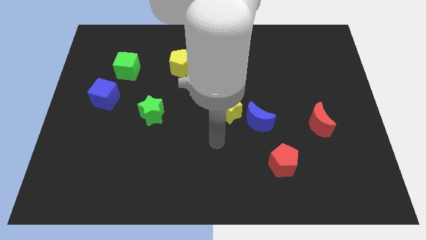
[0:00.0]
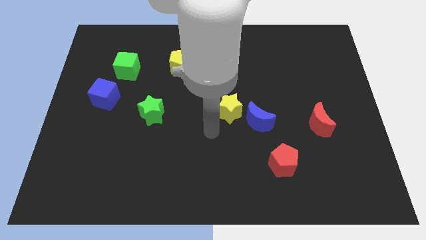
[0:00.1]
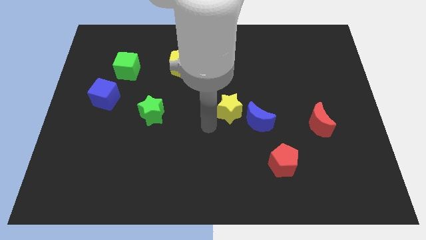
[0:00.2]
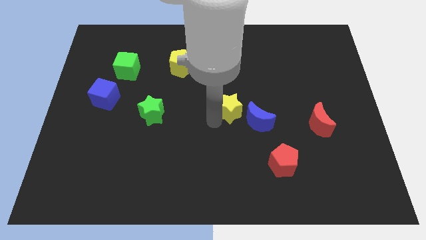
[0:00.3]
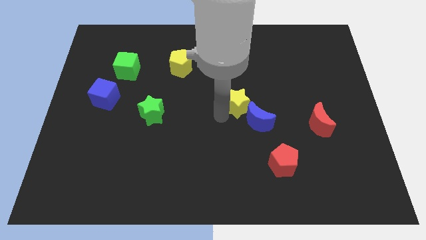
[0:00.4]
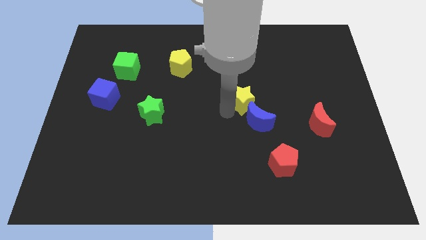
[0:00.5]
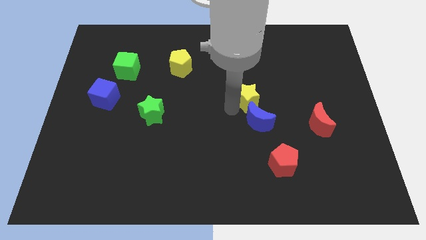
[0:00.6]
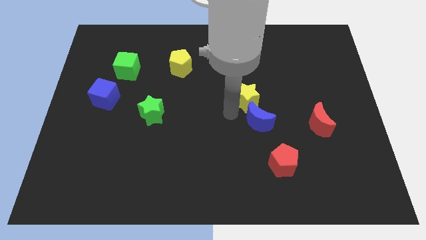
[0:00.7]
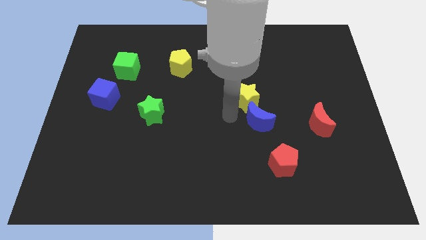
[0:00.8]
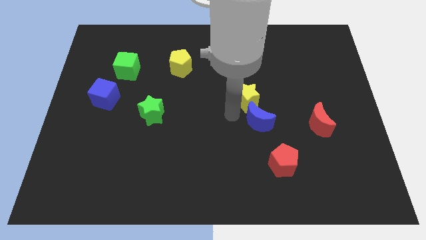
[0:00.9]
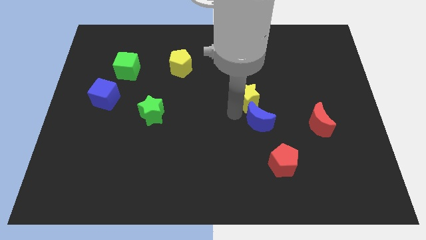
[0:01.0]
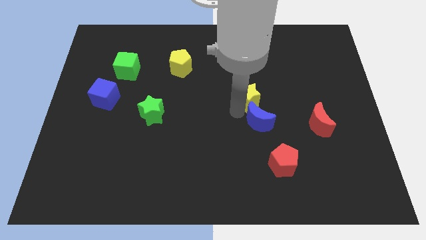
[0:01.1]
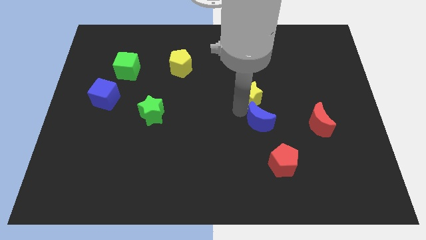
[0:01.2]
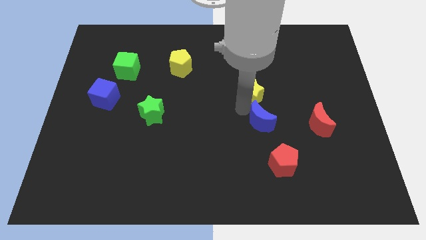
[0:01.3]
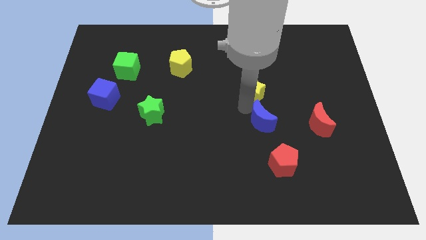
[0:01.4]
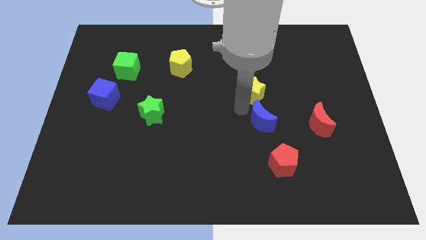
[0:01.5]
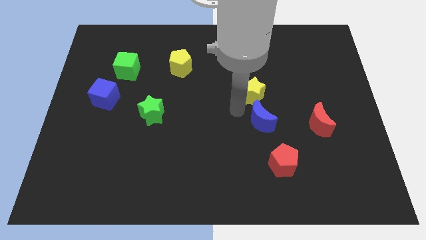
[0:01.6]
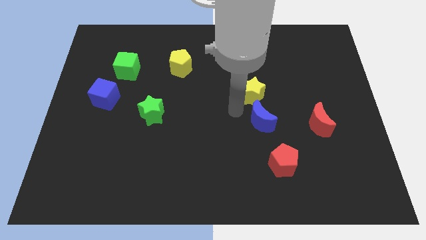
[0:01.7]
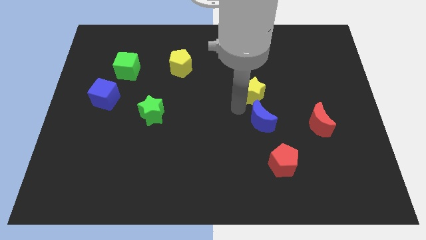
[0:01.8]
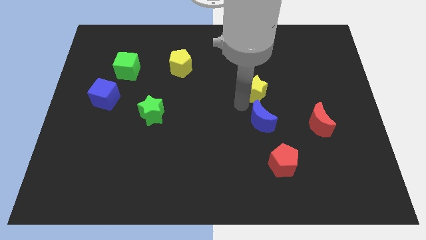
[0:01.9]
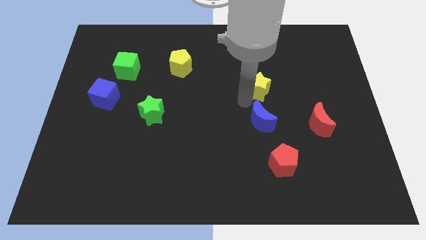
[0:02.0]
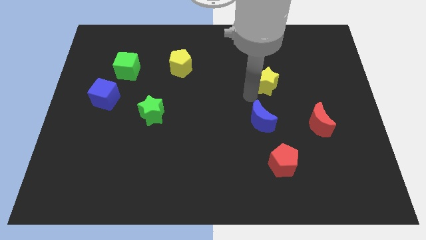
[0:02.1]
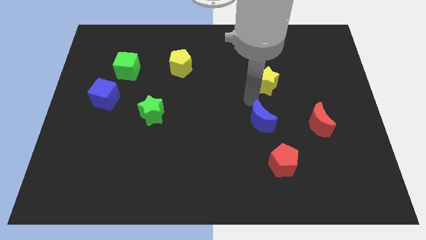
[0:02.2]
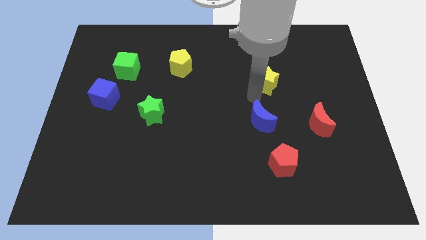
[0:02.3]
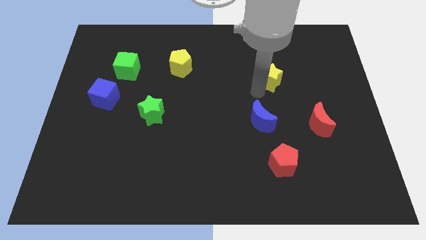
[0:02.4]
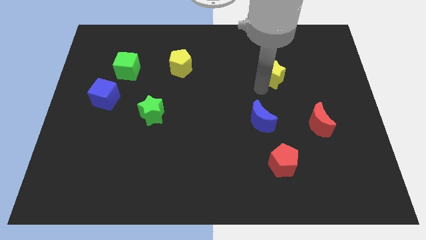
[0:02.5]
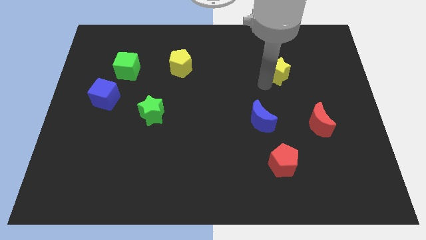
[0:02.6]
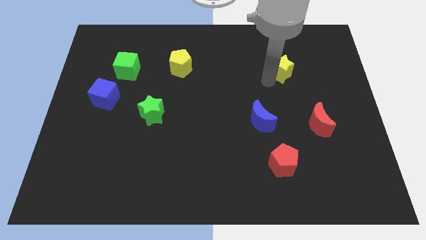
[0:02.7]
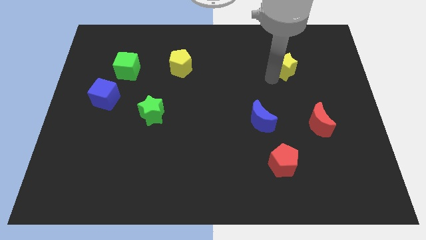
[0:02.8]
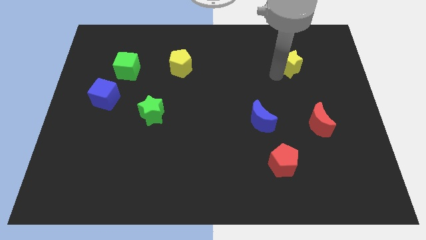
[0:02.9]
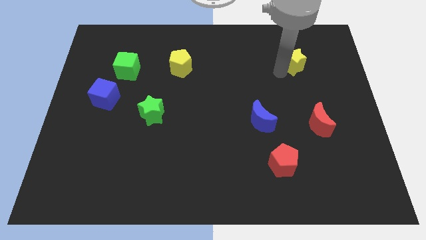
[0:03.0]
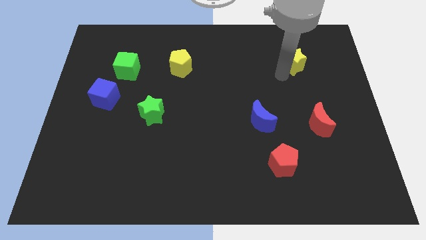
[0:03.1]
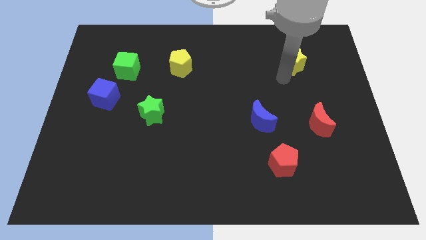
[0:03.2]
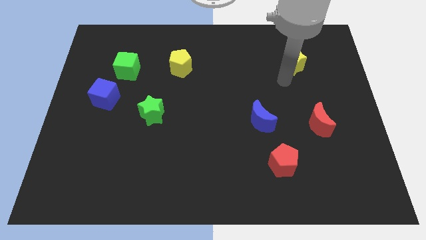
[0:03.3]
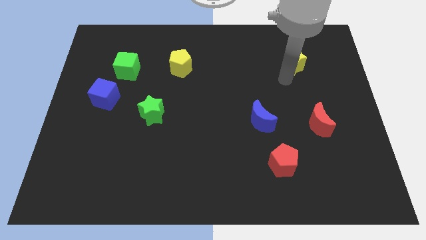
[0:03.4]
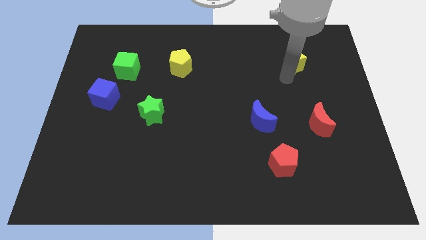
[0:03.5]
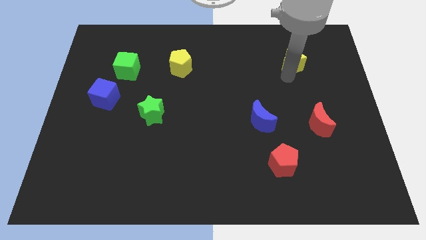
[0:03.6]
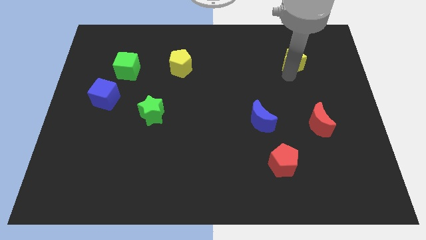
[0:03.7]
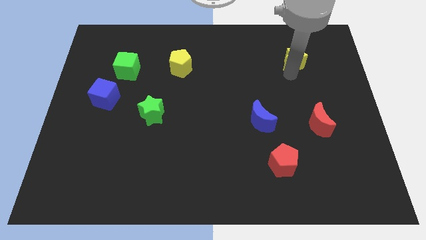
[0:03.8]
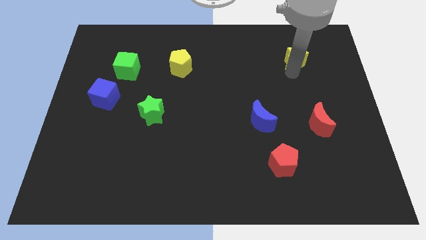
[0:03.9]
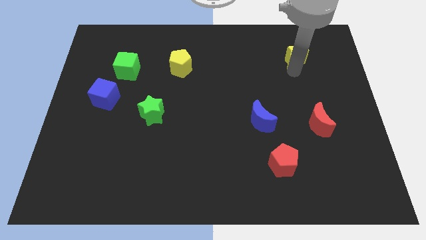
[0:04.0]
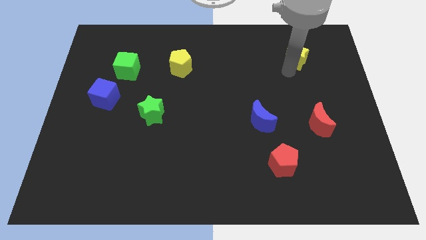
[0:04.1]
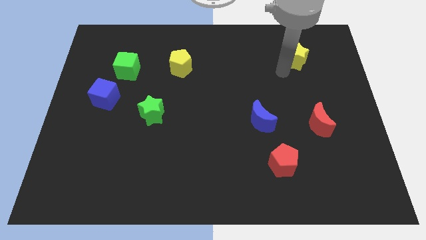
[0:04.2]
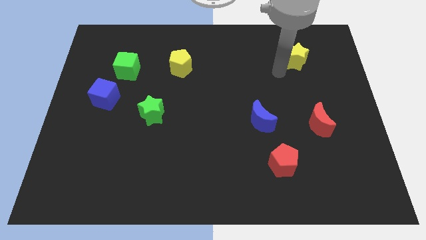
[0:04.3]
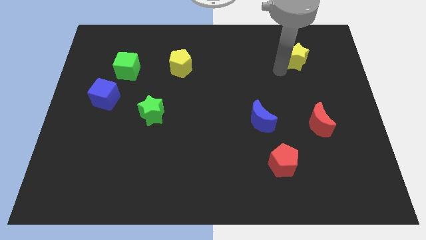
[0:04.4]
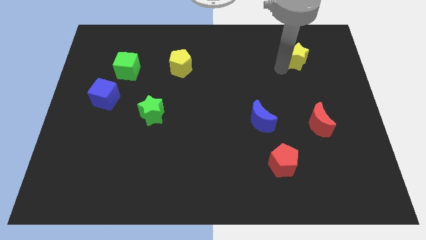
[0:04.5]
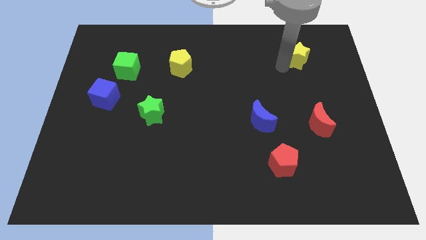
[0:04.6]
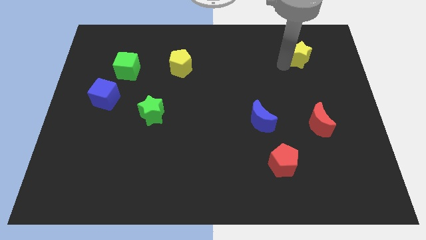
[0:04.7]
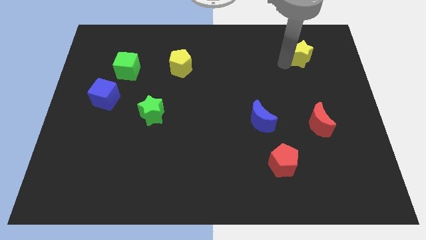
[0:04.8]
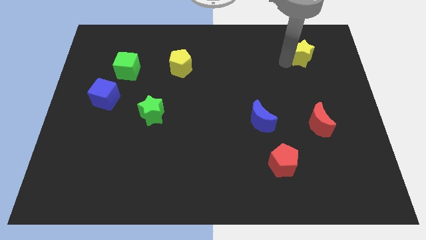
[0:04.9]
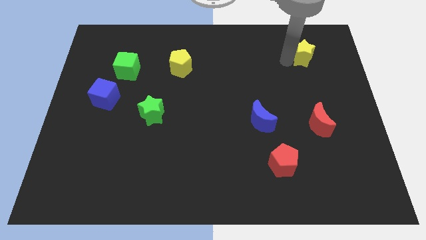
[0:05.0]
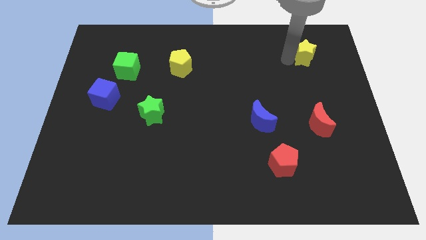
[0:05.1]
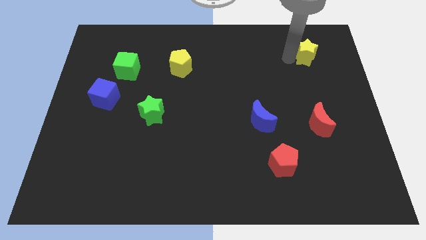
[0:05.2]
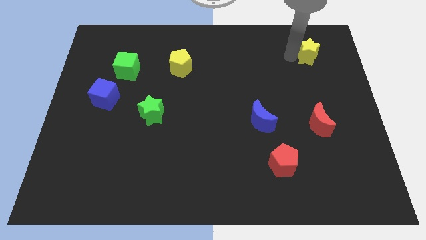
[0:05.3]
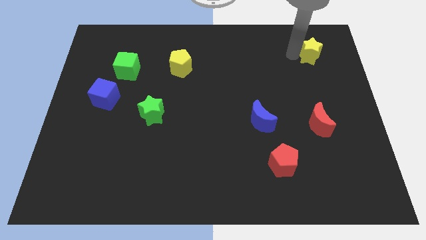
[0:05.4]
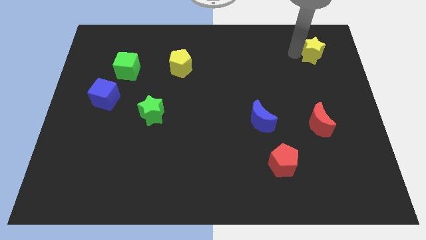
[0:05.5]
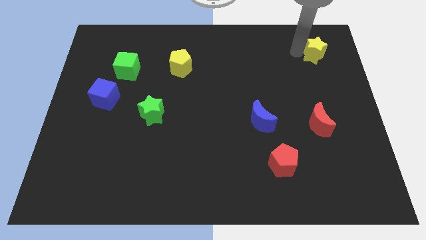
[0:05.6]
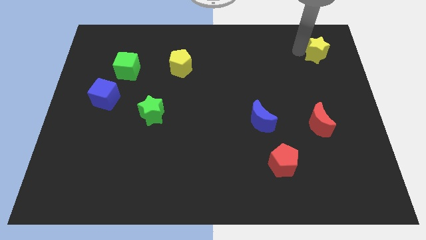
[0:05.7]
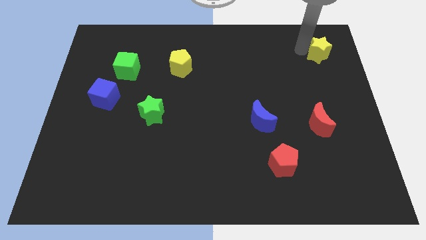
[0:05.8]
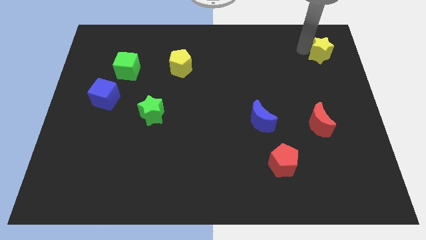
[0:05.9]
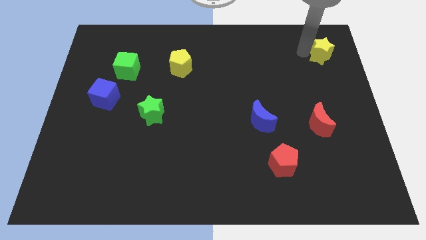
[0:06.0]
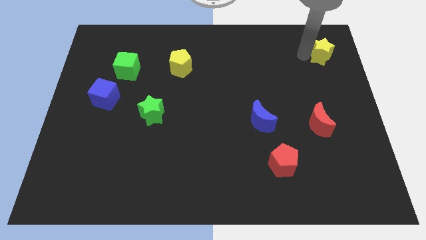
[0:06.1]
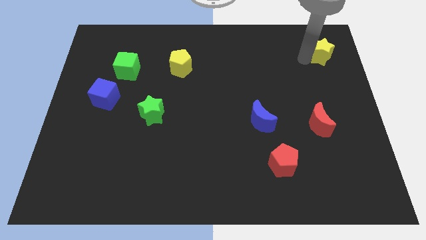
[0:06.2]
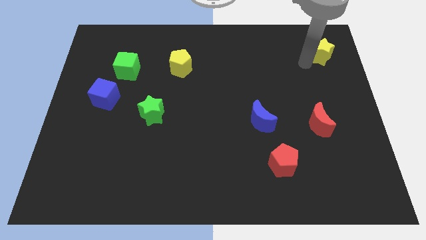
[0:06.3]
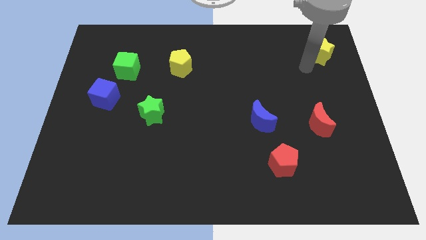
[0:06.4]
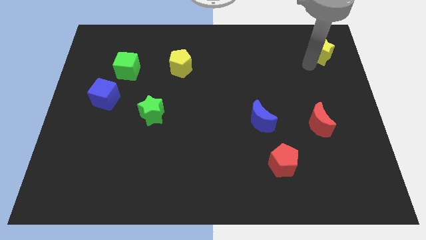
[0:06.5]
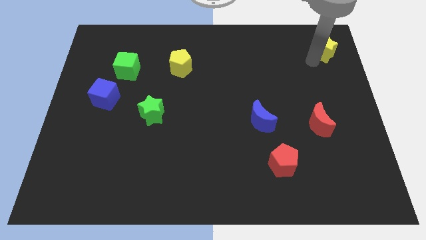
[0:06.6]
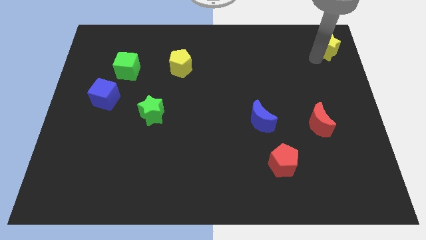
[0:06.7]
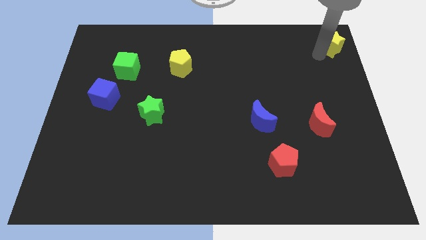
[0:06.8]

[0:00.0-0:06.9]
move the yellow star to the top right of the board
